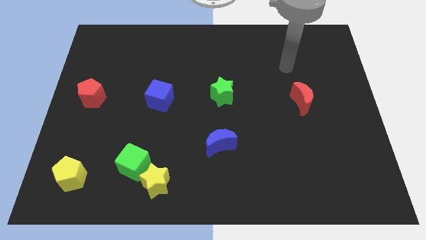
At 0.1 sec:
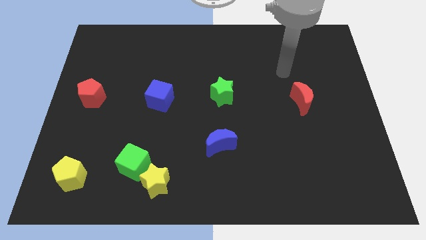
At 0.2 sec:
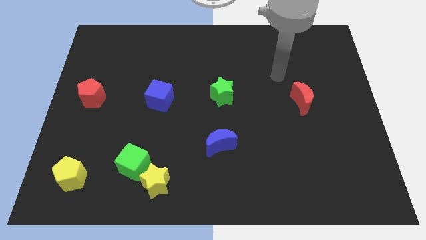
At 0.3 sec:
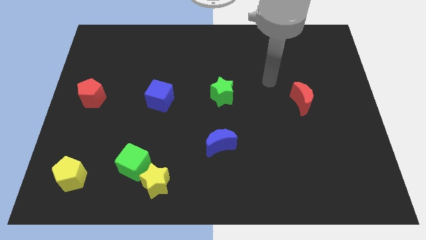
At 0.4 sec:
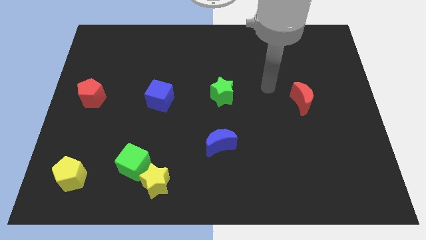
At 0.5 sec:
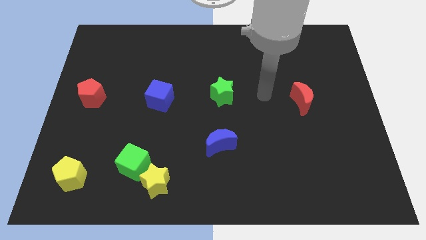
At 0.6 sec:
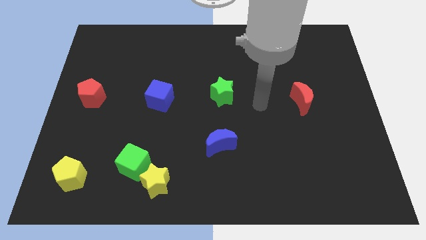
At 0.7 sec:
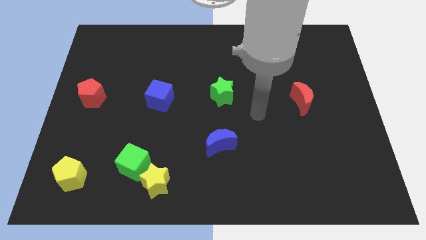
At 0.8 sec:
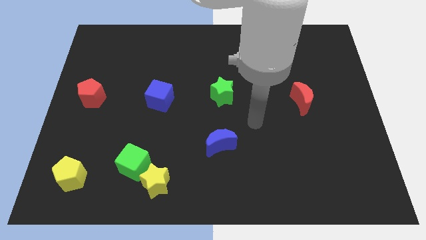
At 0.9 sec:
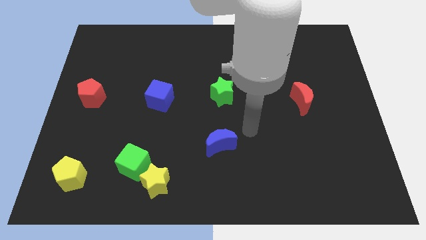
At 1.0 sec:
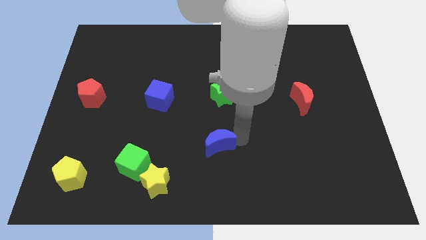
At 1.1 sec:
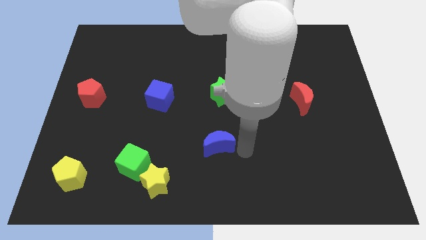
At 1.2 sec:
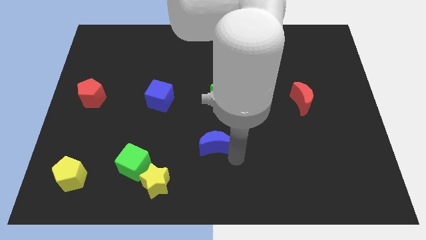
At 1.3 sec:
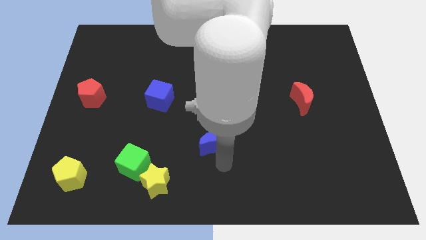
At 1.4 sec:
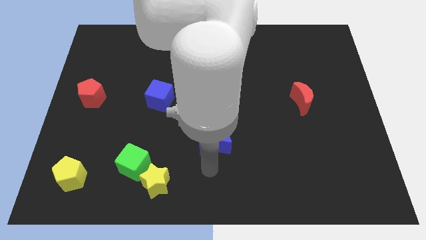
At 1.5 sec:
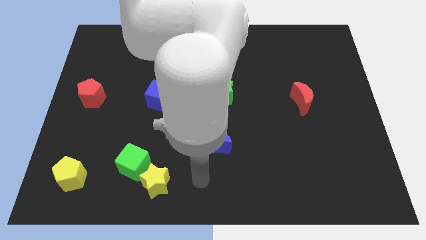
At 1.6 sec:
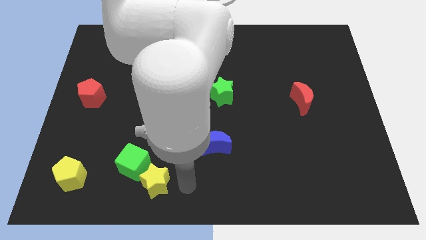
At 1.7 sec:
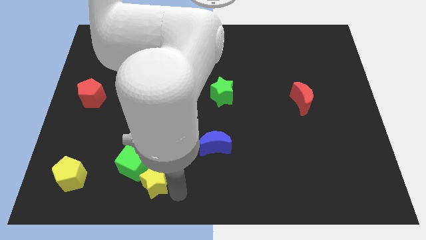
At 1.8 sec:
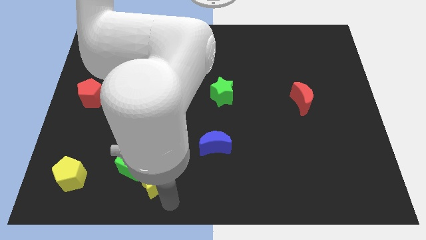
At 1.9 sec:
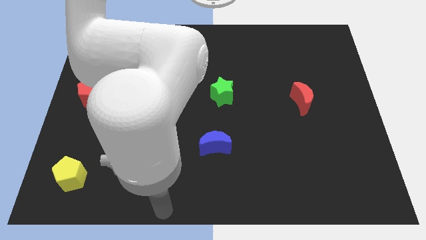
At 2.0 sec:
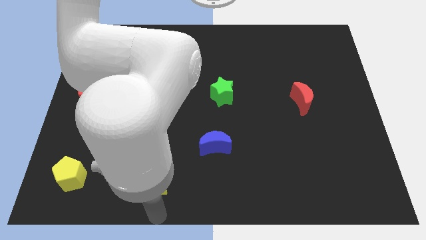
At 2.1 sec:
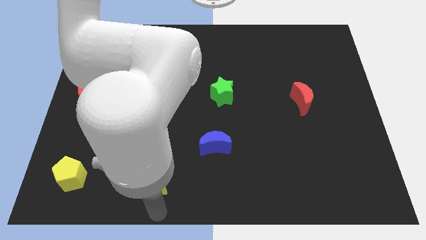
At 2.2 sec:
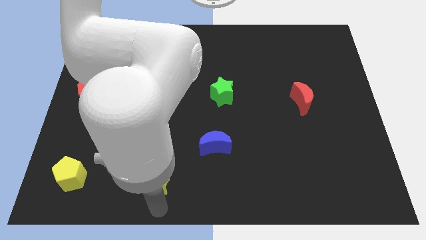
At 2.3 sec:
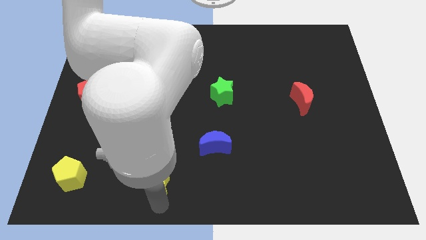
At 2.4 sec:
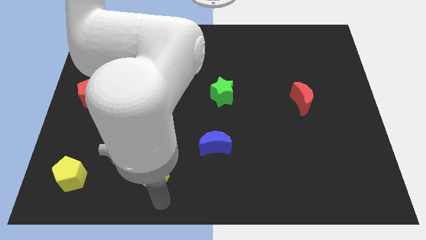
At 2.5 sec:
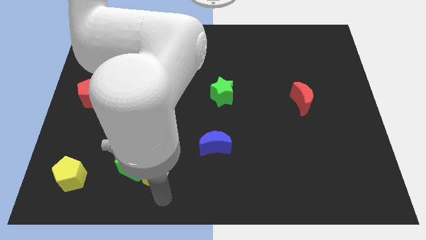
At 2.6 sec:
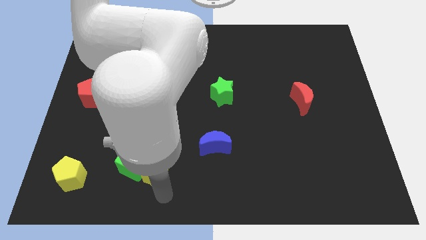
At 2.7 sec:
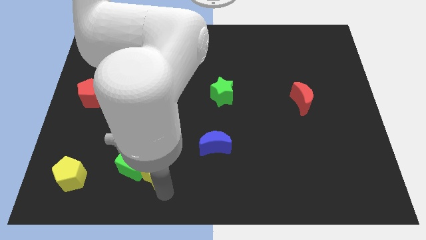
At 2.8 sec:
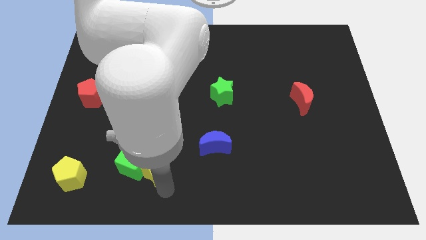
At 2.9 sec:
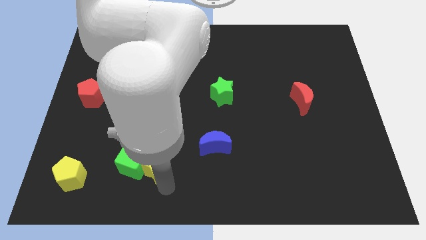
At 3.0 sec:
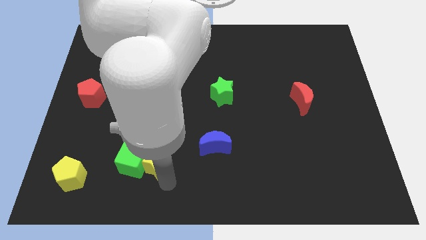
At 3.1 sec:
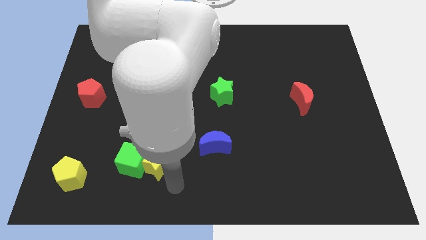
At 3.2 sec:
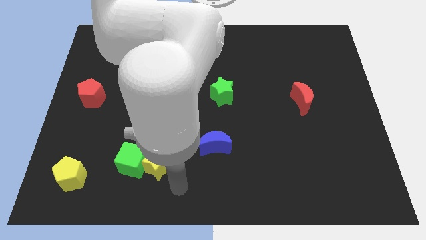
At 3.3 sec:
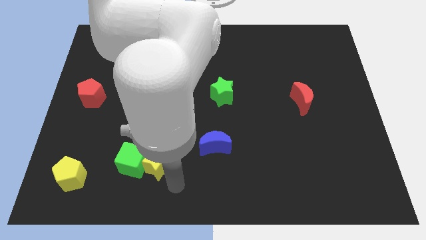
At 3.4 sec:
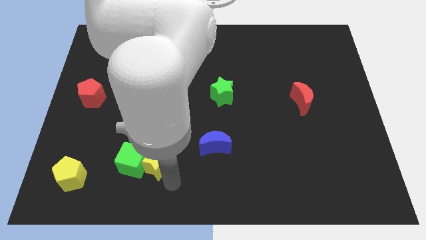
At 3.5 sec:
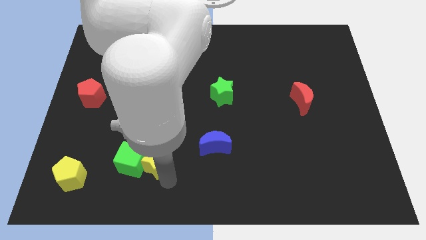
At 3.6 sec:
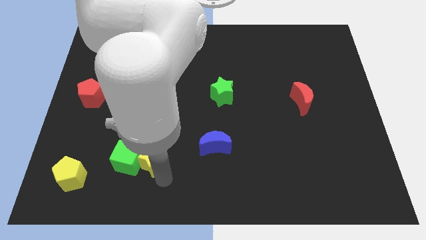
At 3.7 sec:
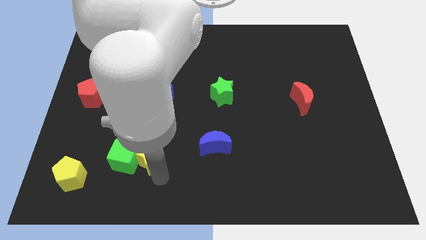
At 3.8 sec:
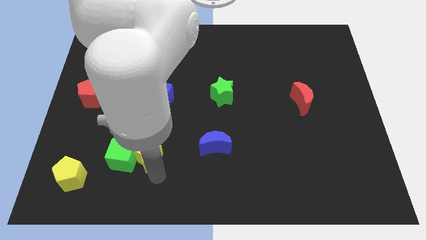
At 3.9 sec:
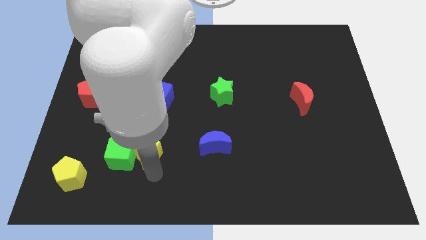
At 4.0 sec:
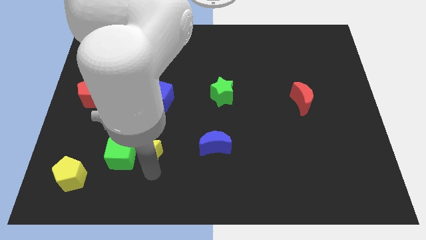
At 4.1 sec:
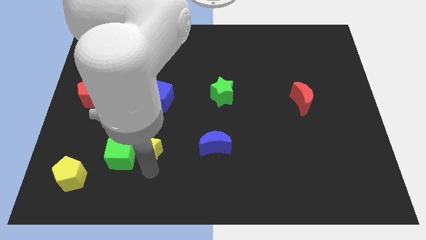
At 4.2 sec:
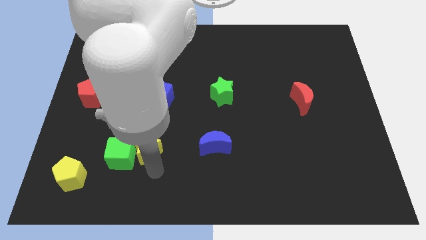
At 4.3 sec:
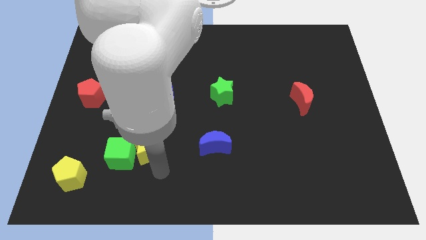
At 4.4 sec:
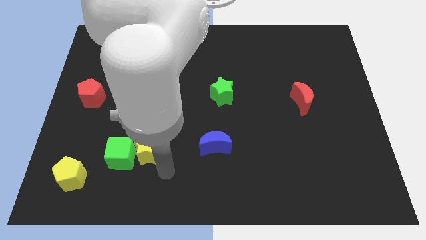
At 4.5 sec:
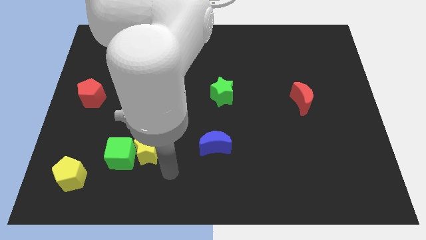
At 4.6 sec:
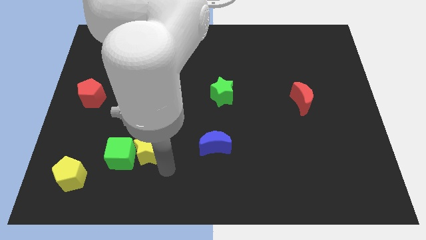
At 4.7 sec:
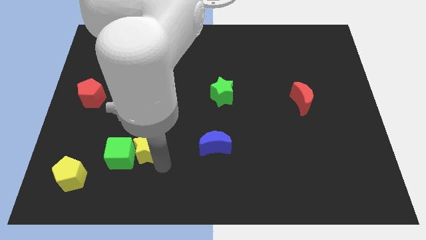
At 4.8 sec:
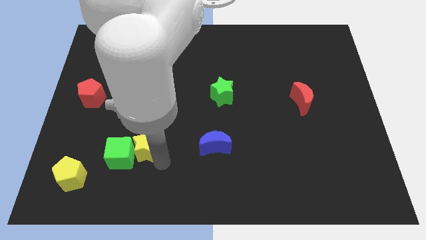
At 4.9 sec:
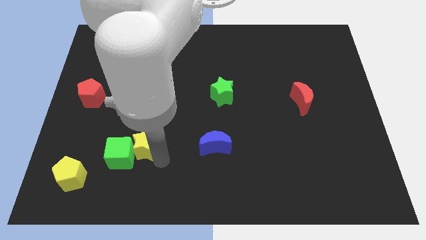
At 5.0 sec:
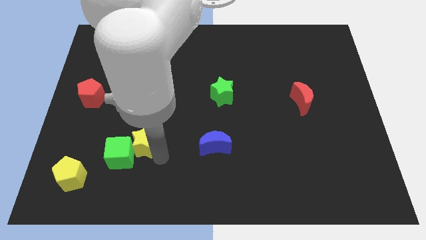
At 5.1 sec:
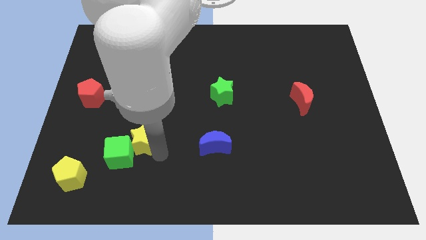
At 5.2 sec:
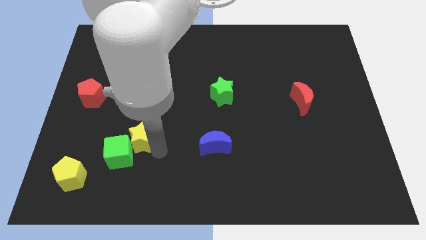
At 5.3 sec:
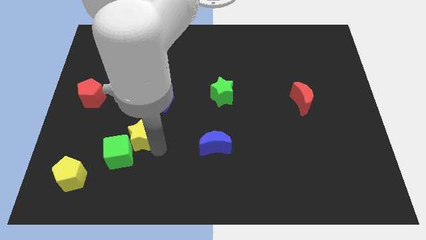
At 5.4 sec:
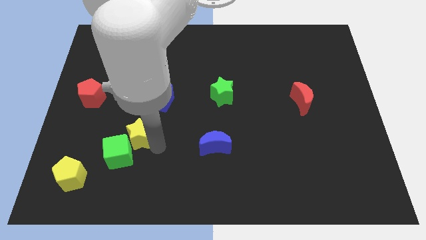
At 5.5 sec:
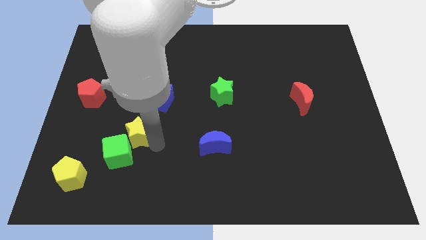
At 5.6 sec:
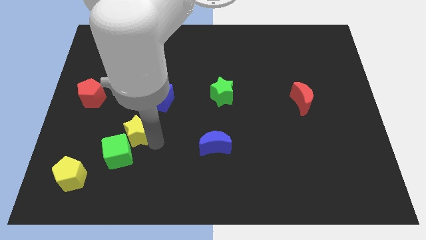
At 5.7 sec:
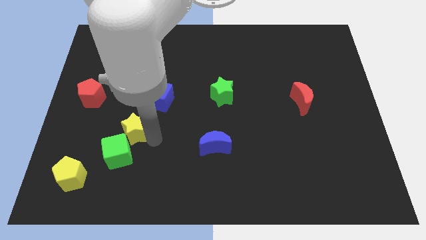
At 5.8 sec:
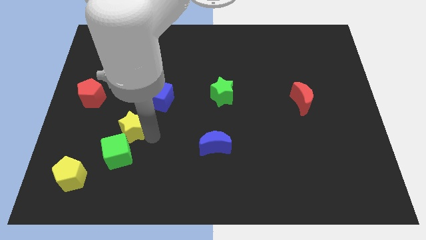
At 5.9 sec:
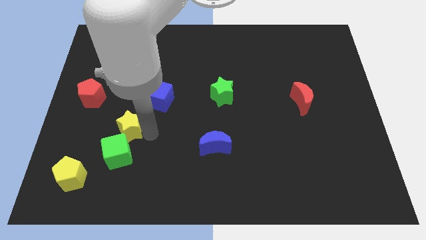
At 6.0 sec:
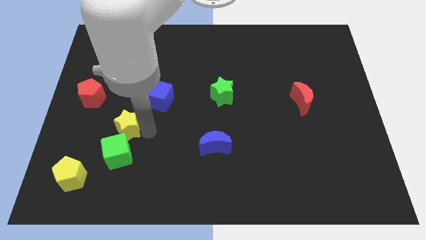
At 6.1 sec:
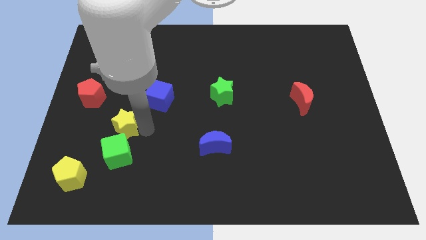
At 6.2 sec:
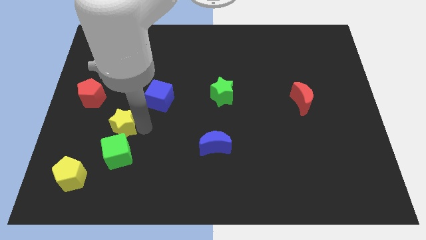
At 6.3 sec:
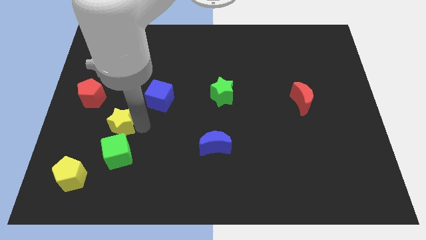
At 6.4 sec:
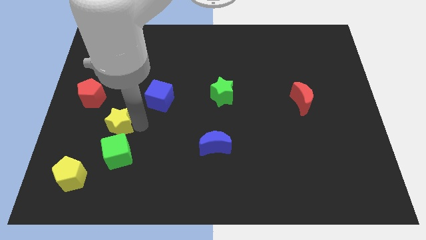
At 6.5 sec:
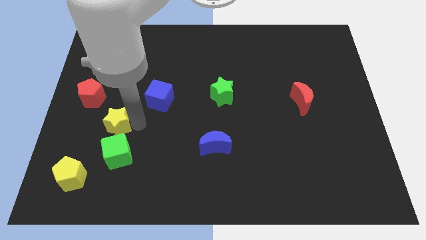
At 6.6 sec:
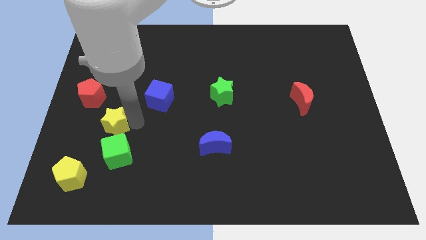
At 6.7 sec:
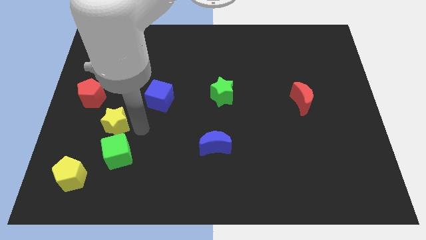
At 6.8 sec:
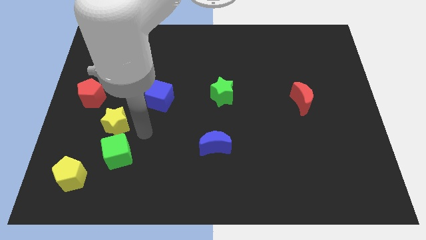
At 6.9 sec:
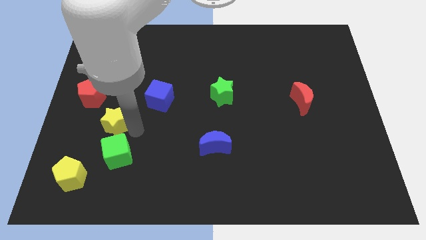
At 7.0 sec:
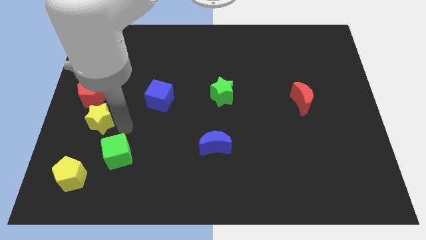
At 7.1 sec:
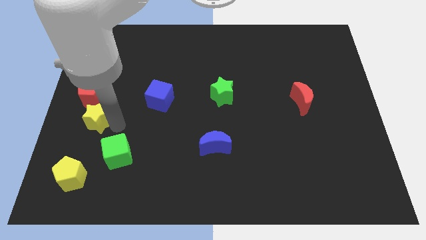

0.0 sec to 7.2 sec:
slide the yellow star to the left side of the board
